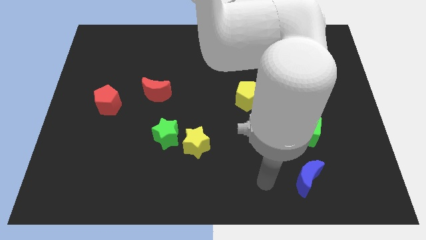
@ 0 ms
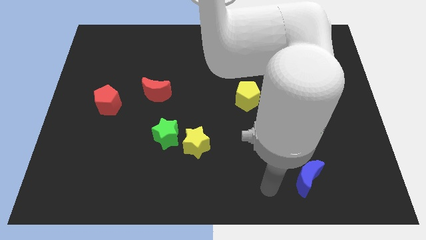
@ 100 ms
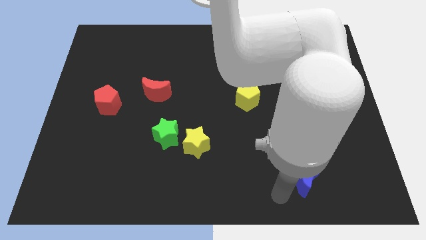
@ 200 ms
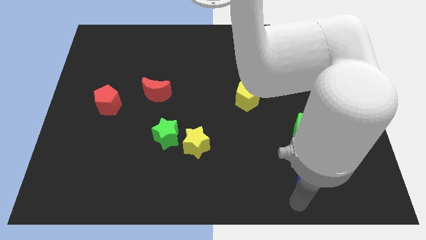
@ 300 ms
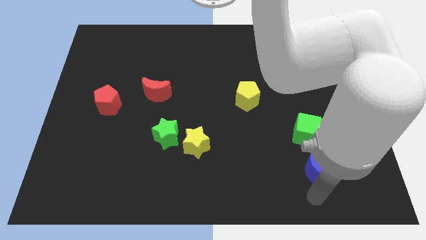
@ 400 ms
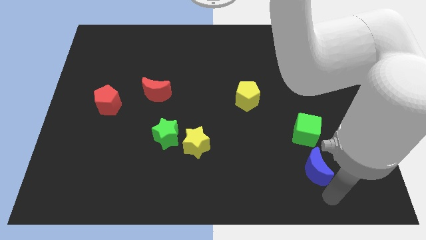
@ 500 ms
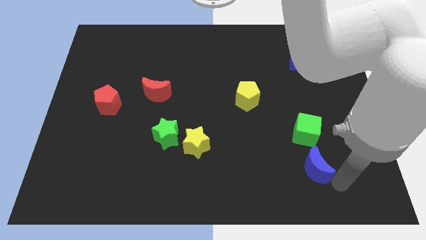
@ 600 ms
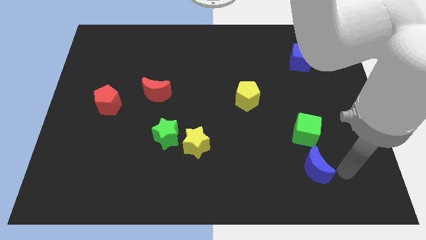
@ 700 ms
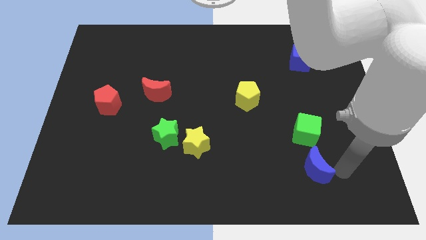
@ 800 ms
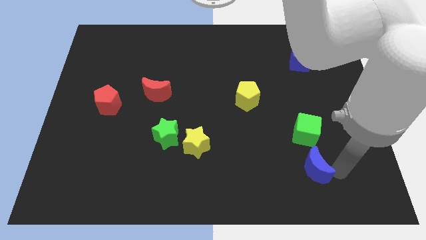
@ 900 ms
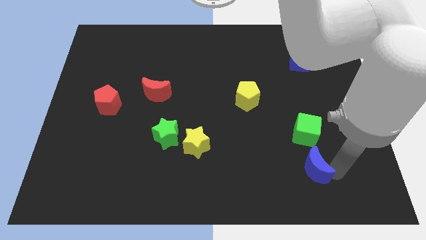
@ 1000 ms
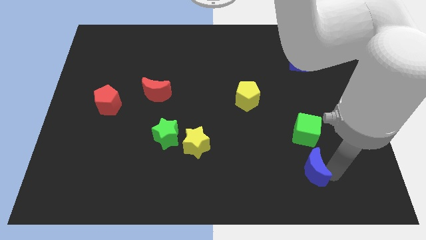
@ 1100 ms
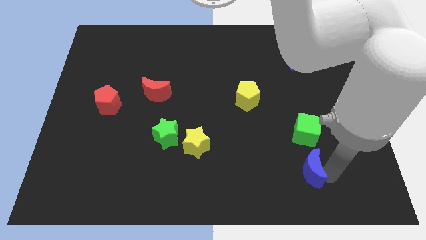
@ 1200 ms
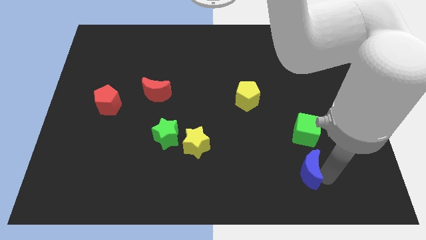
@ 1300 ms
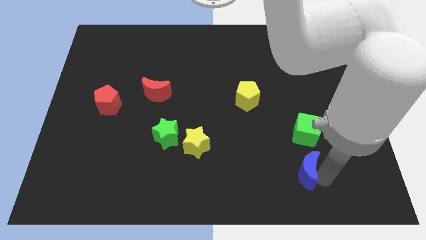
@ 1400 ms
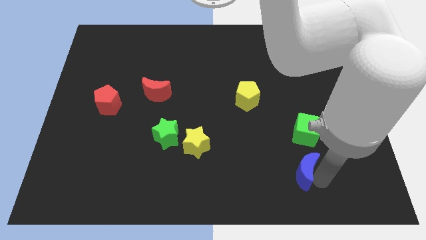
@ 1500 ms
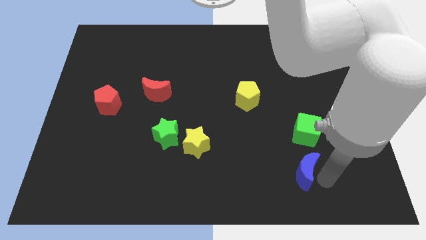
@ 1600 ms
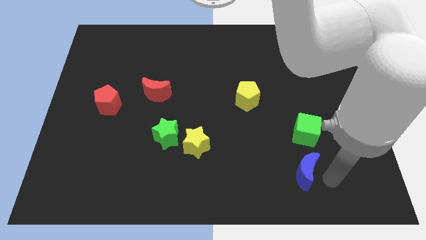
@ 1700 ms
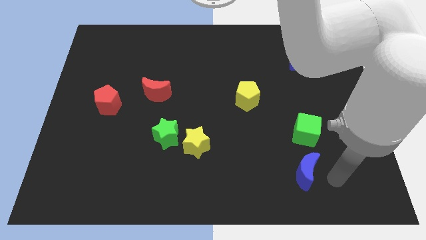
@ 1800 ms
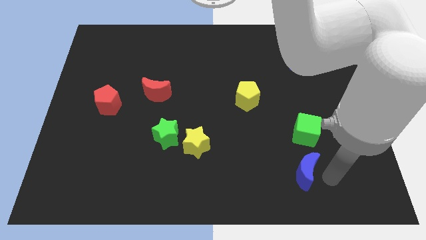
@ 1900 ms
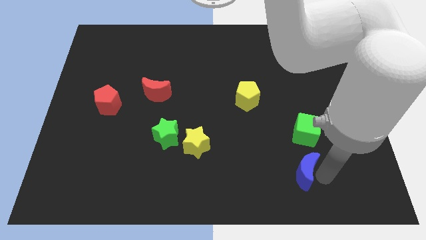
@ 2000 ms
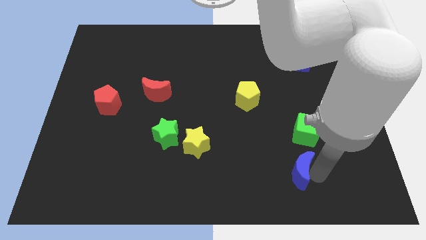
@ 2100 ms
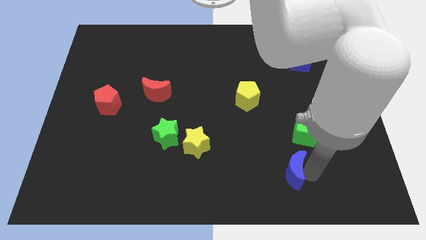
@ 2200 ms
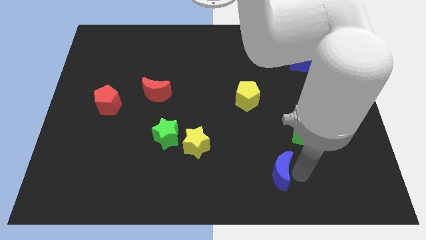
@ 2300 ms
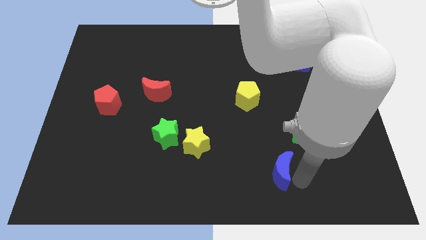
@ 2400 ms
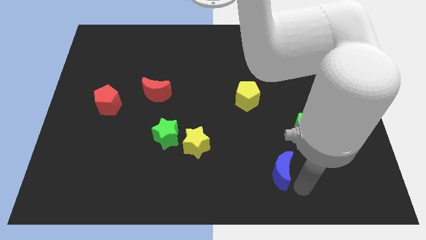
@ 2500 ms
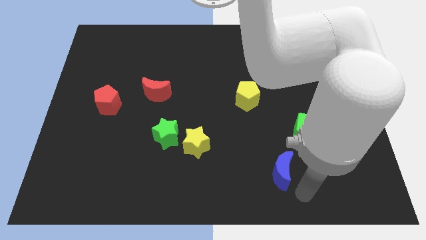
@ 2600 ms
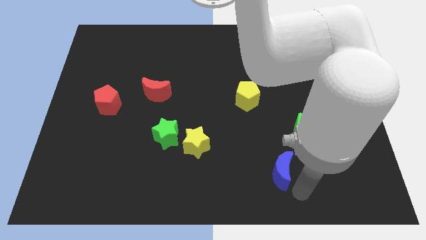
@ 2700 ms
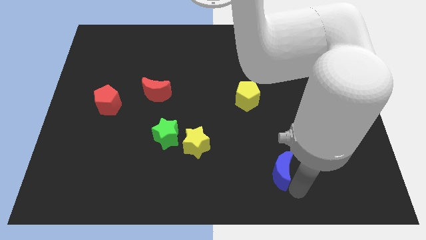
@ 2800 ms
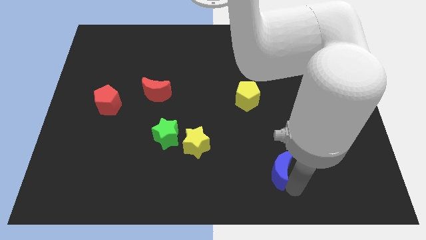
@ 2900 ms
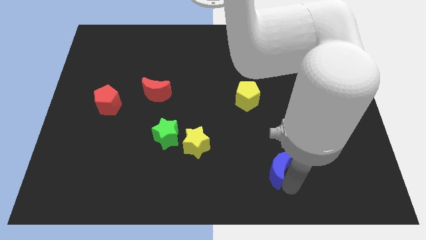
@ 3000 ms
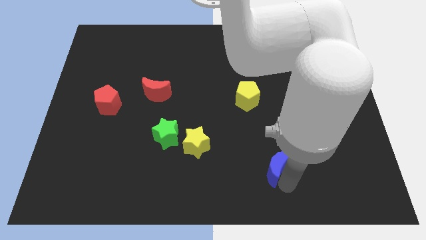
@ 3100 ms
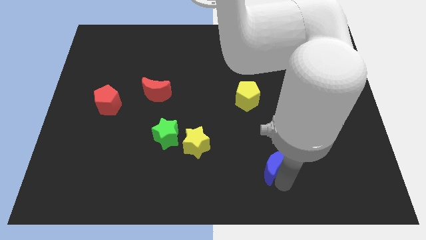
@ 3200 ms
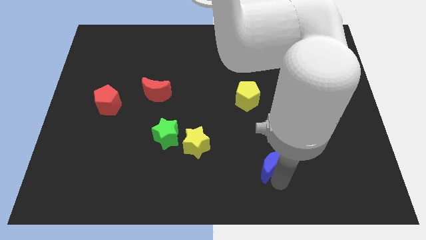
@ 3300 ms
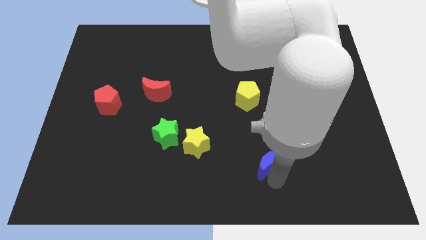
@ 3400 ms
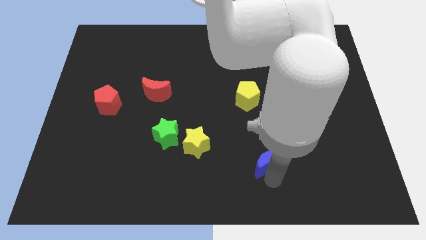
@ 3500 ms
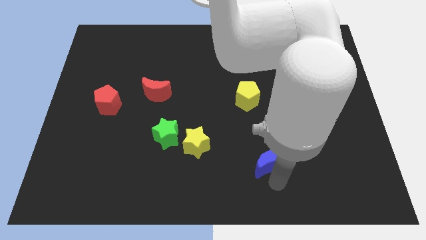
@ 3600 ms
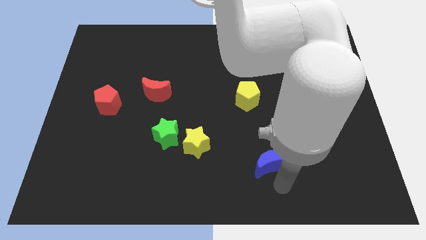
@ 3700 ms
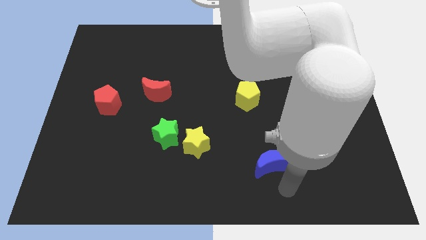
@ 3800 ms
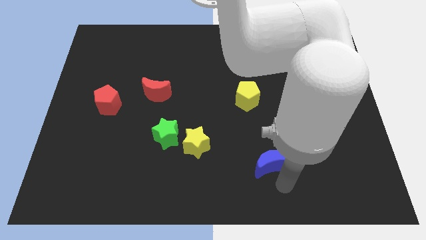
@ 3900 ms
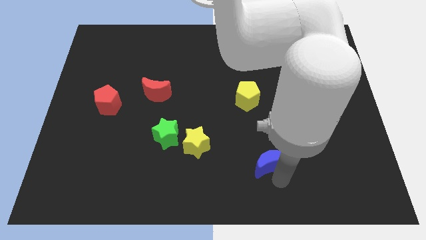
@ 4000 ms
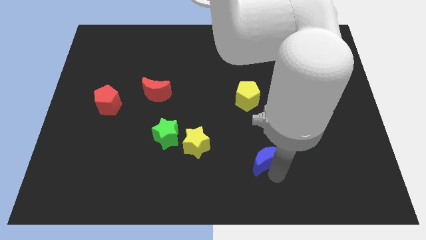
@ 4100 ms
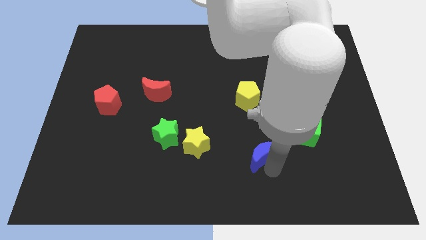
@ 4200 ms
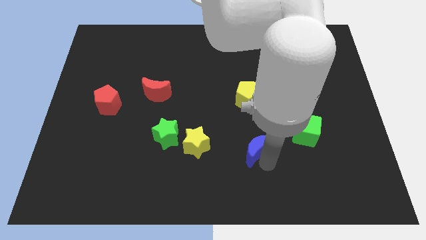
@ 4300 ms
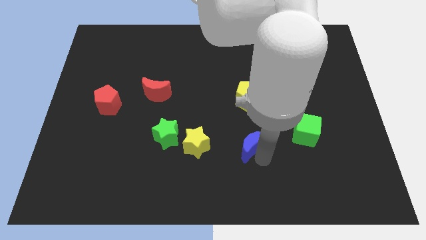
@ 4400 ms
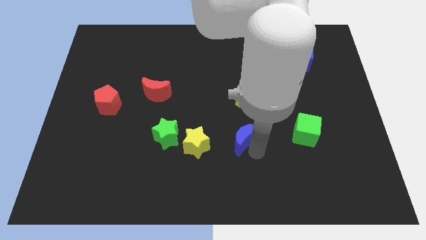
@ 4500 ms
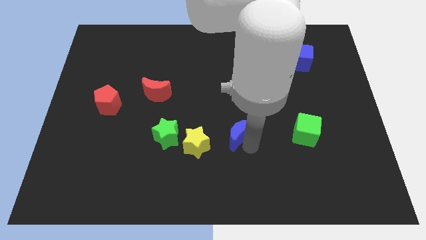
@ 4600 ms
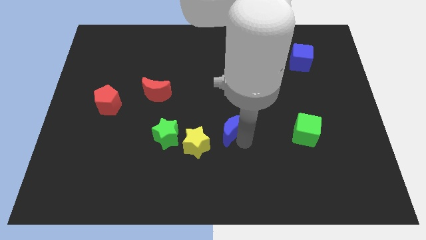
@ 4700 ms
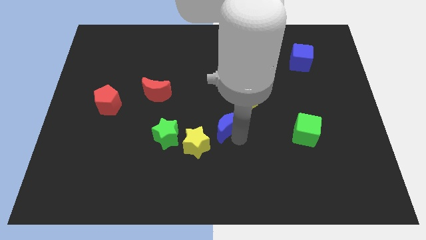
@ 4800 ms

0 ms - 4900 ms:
push the blue moon up and left diagonally

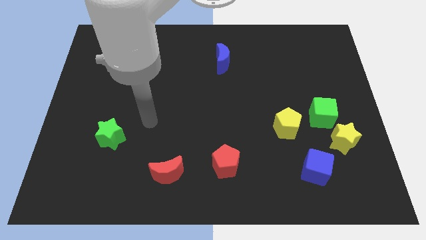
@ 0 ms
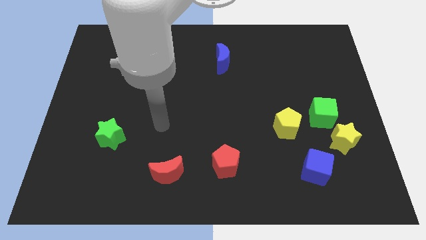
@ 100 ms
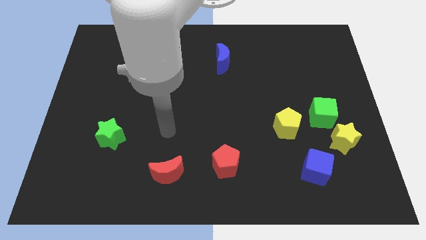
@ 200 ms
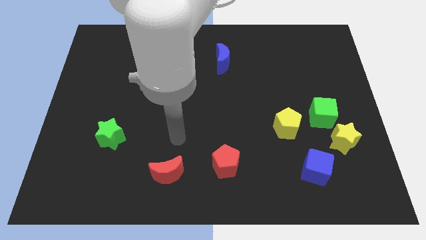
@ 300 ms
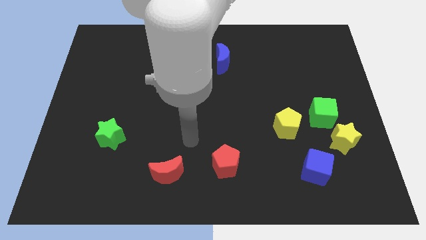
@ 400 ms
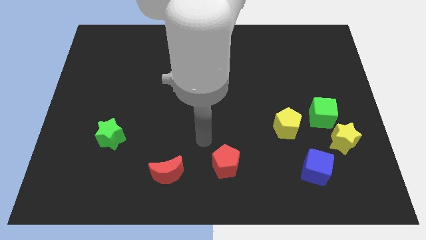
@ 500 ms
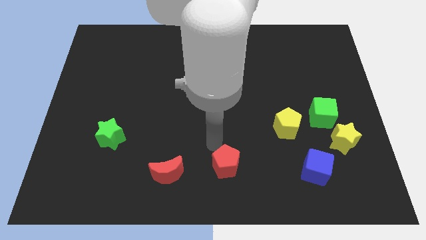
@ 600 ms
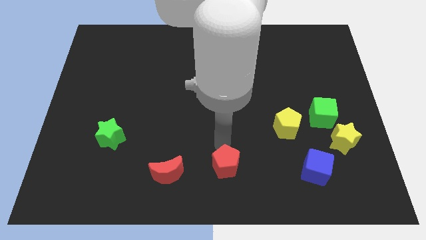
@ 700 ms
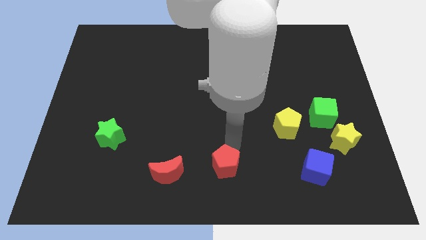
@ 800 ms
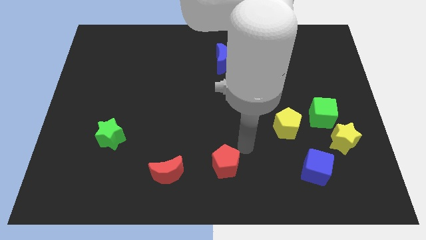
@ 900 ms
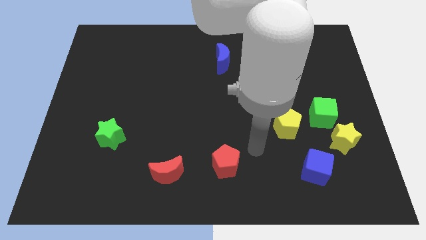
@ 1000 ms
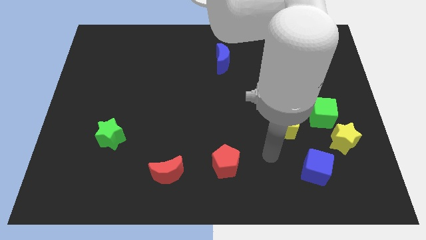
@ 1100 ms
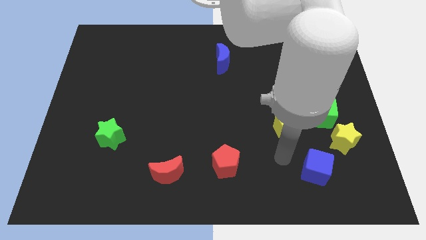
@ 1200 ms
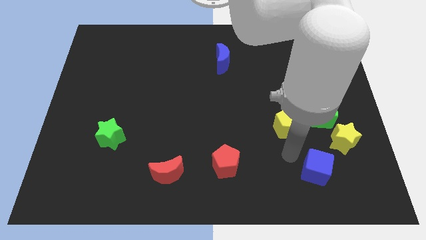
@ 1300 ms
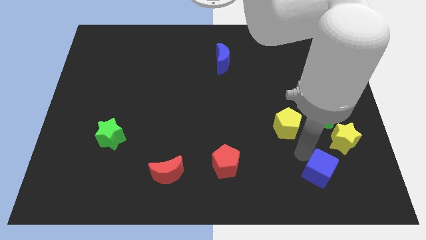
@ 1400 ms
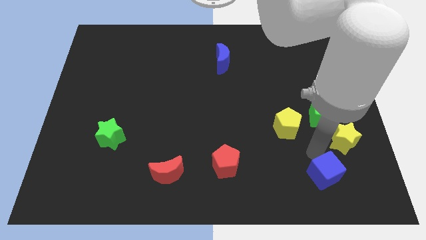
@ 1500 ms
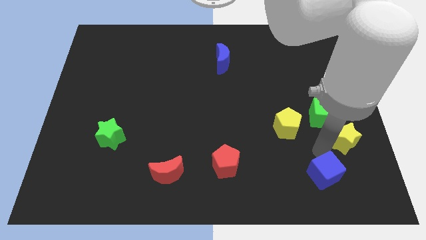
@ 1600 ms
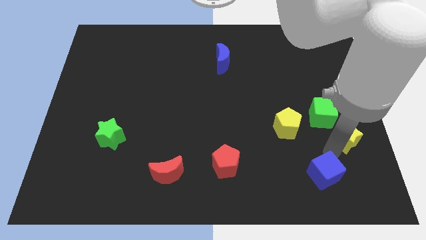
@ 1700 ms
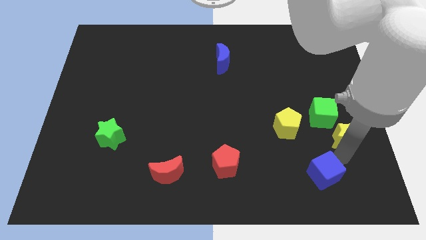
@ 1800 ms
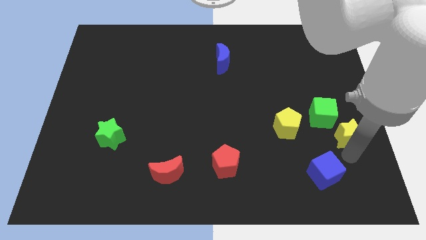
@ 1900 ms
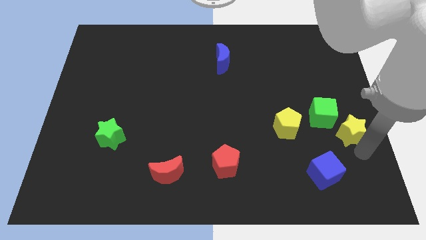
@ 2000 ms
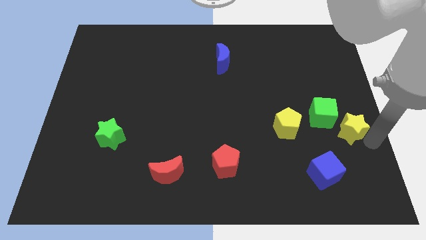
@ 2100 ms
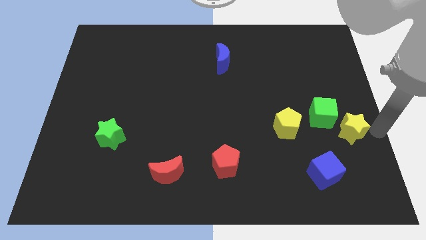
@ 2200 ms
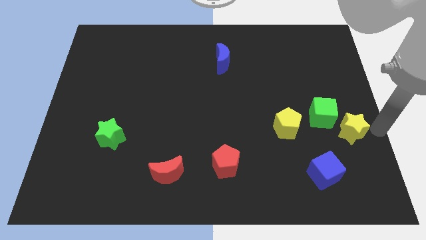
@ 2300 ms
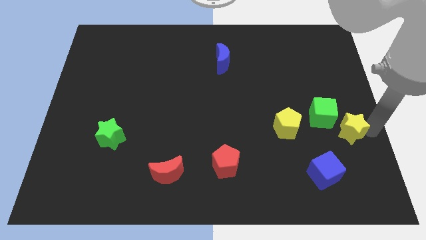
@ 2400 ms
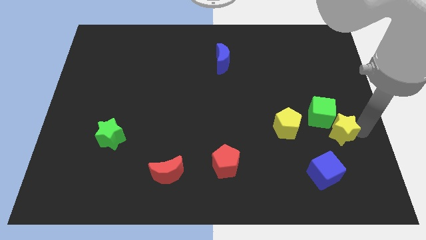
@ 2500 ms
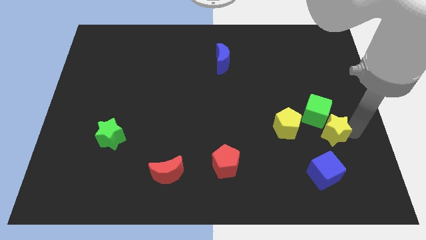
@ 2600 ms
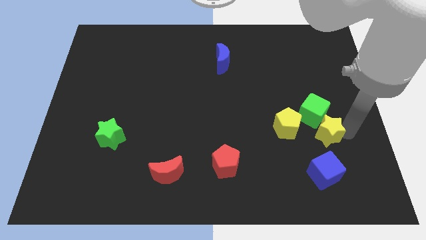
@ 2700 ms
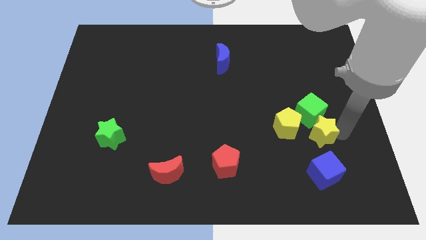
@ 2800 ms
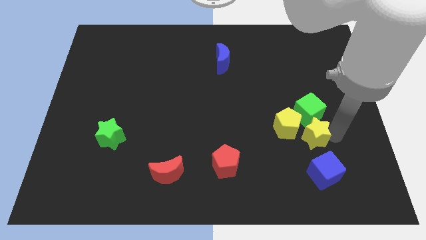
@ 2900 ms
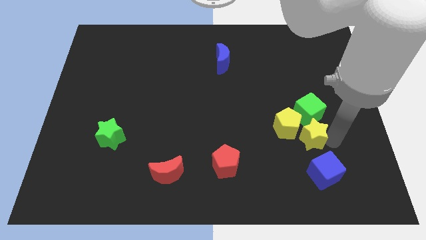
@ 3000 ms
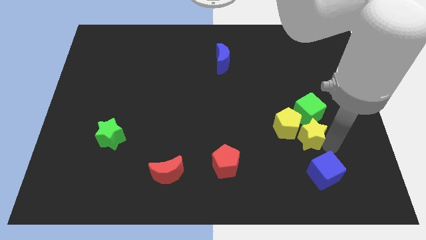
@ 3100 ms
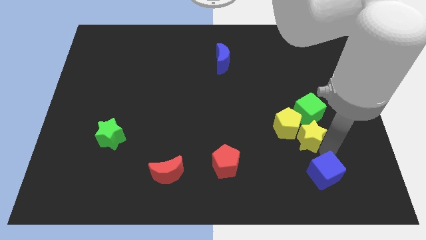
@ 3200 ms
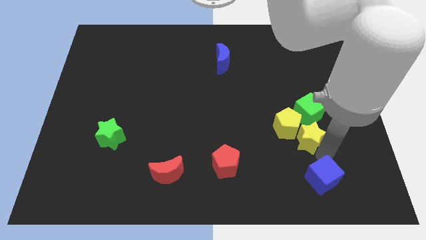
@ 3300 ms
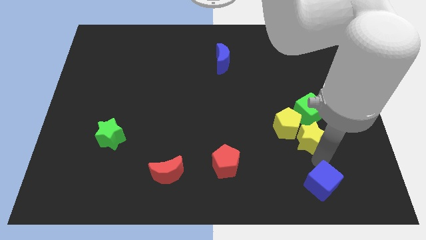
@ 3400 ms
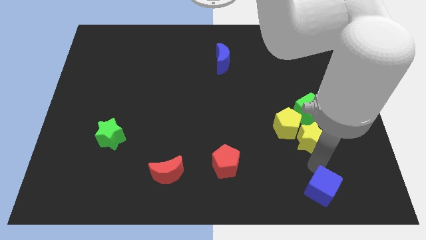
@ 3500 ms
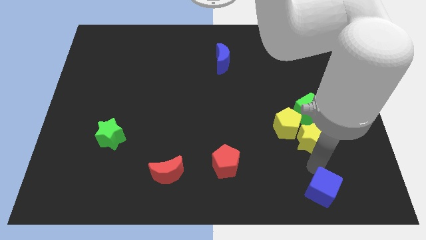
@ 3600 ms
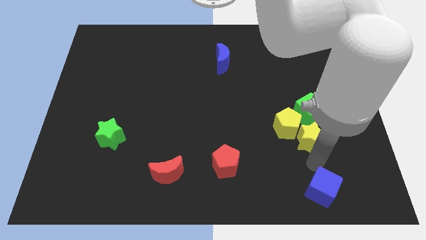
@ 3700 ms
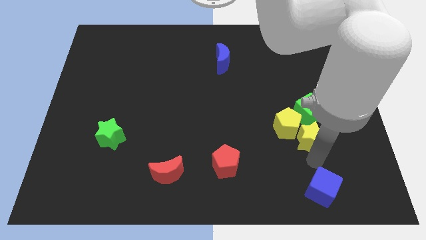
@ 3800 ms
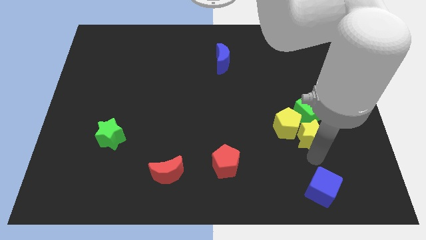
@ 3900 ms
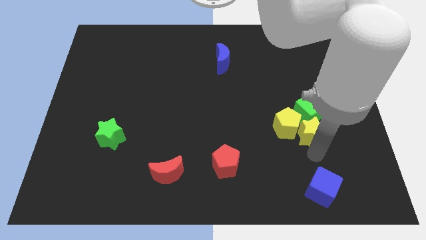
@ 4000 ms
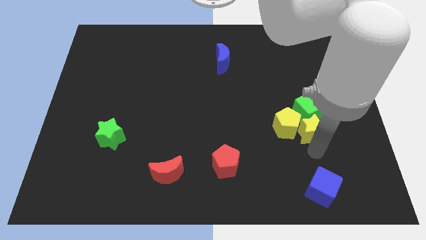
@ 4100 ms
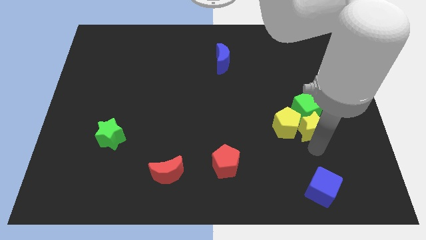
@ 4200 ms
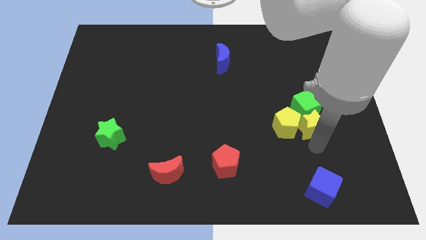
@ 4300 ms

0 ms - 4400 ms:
push the yellow star upwards and left a little
